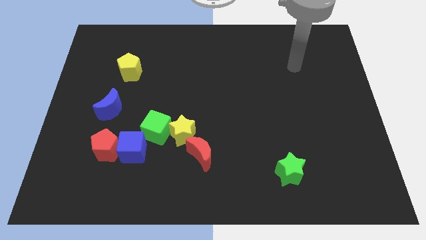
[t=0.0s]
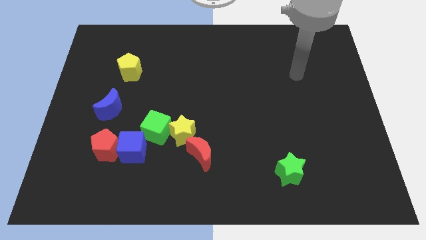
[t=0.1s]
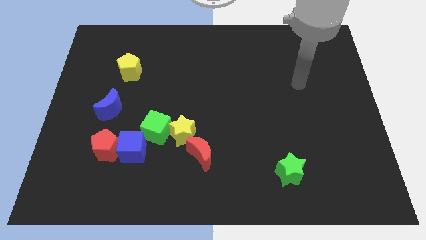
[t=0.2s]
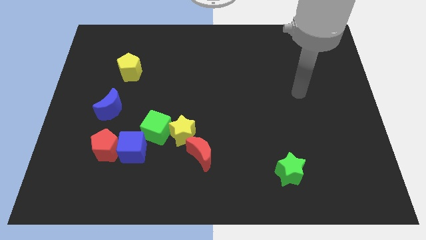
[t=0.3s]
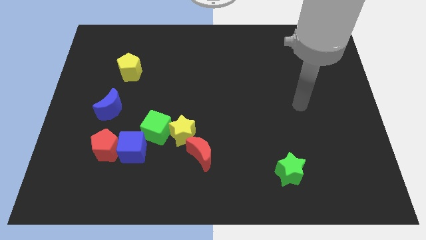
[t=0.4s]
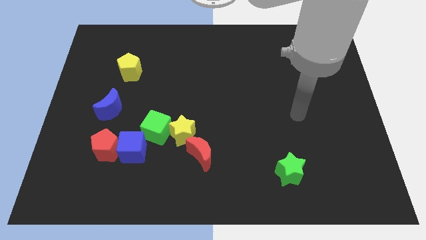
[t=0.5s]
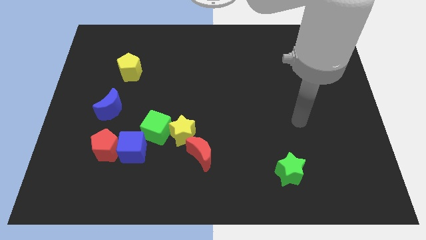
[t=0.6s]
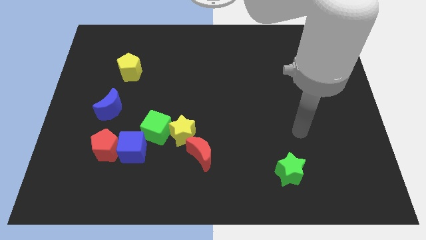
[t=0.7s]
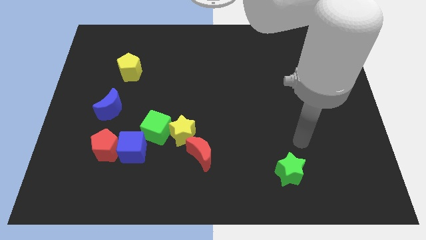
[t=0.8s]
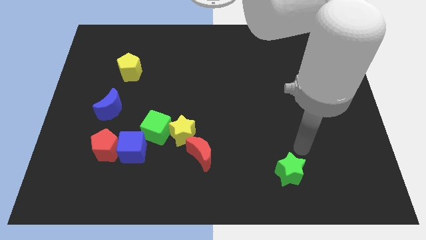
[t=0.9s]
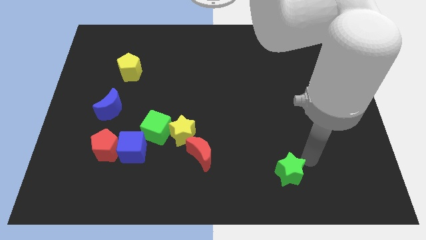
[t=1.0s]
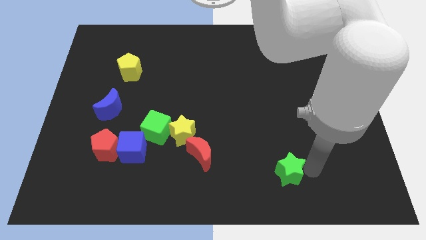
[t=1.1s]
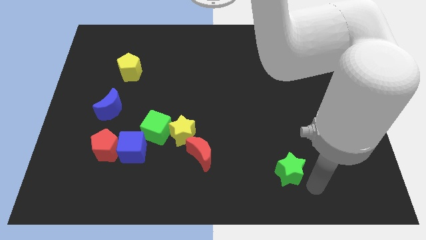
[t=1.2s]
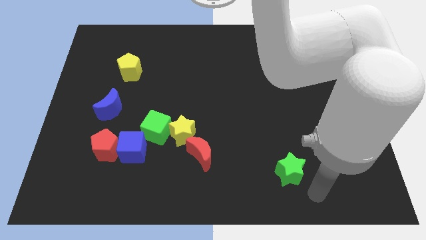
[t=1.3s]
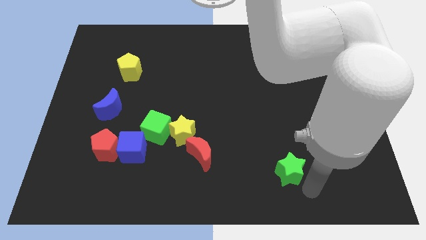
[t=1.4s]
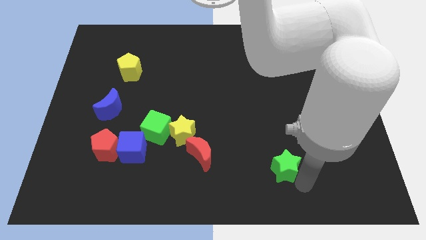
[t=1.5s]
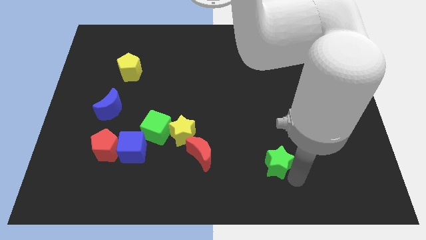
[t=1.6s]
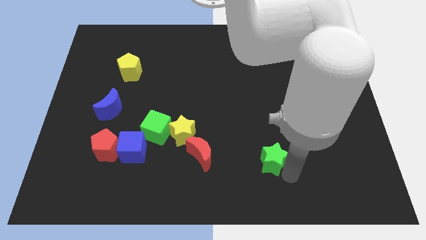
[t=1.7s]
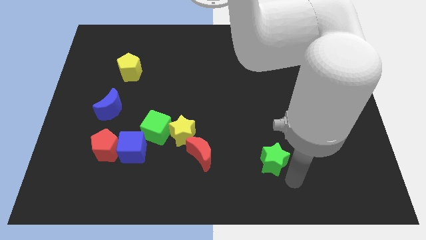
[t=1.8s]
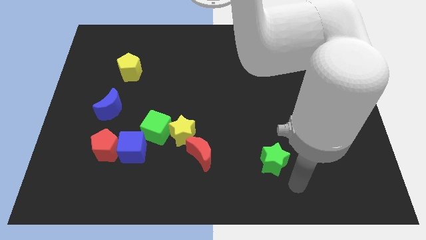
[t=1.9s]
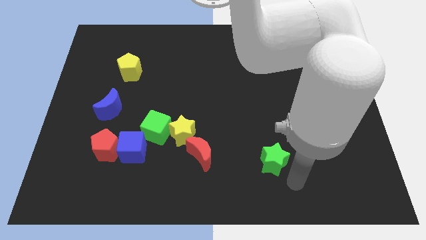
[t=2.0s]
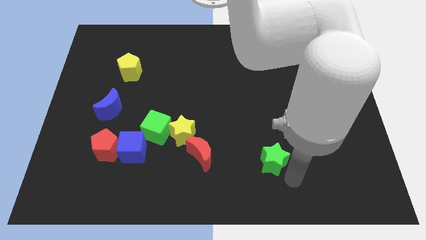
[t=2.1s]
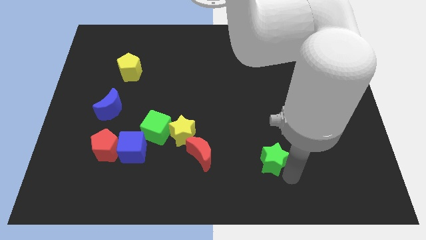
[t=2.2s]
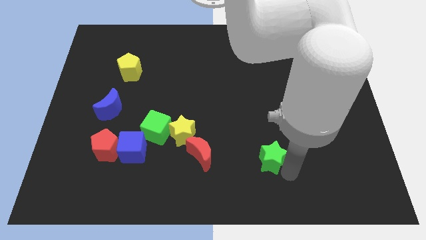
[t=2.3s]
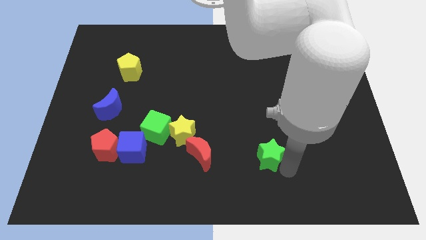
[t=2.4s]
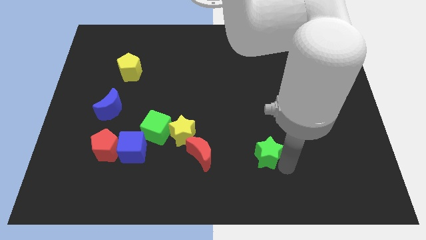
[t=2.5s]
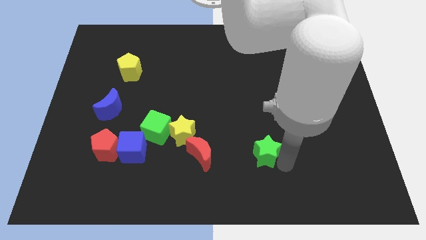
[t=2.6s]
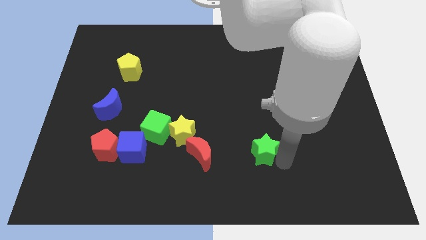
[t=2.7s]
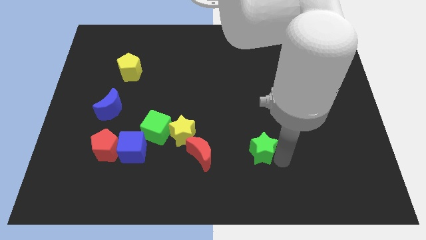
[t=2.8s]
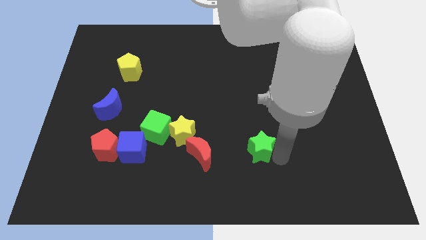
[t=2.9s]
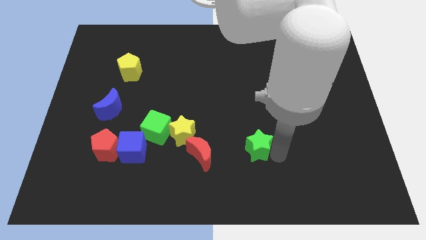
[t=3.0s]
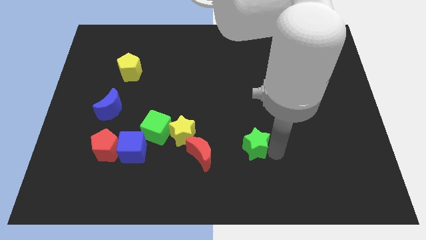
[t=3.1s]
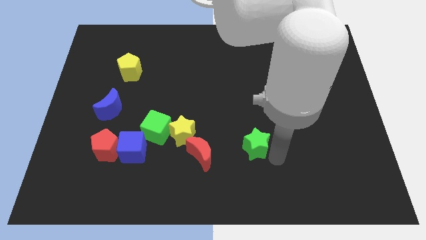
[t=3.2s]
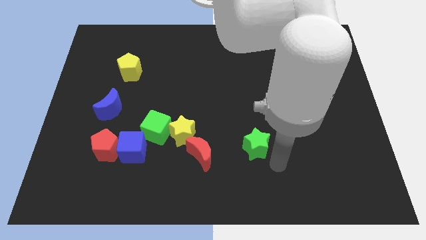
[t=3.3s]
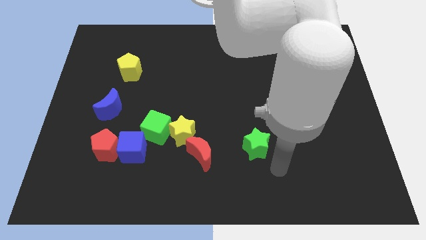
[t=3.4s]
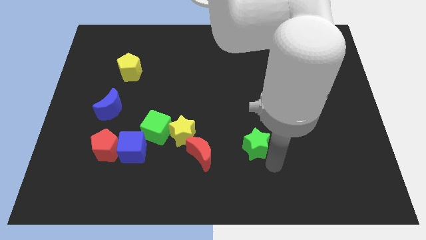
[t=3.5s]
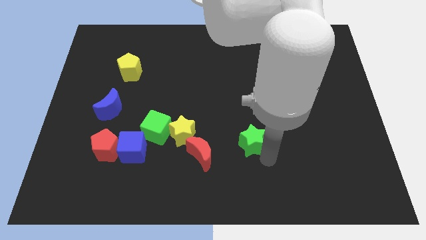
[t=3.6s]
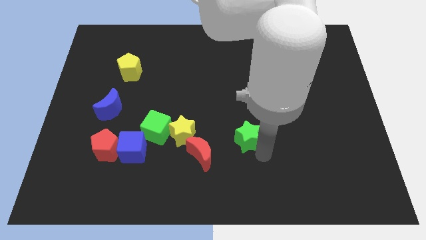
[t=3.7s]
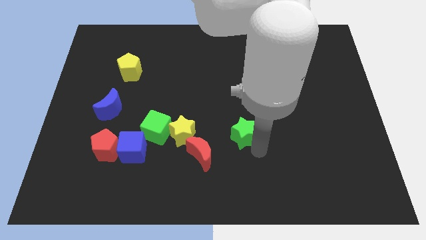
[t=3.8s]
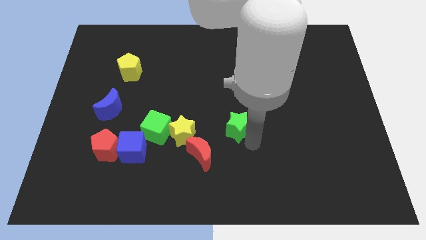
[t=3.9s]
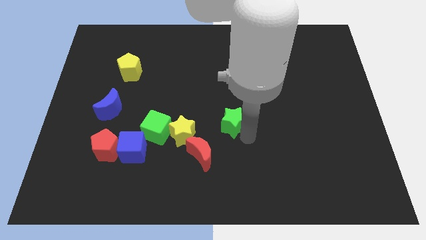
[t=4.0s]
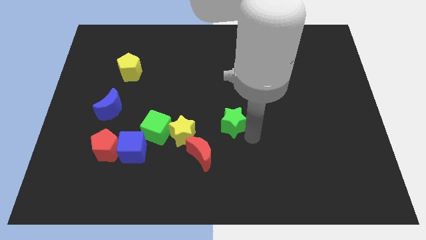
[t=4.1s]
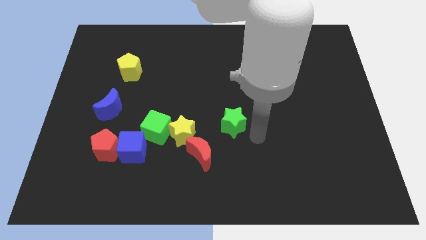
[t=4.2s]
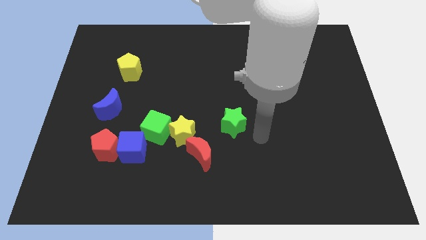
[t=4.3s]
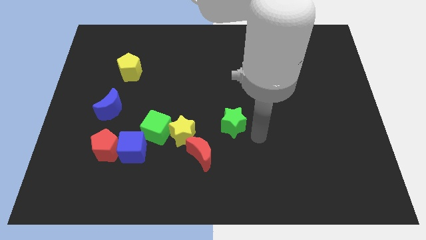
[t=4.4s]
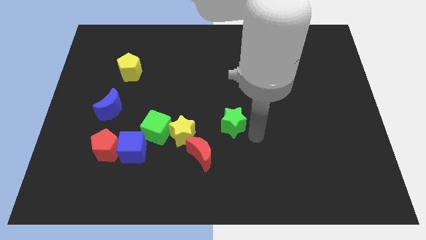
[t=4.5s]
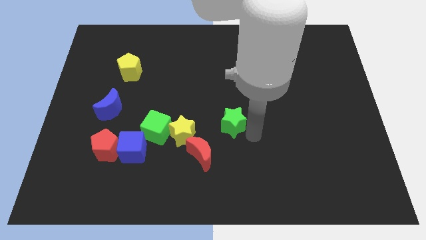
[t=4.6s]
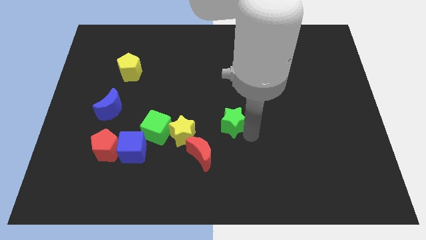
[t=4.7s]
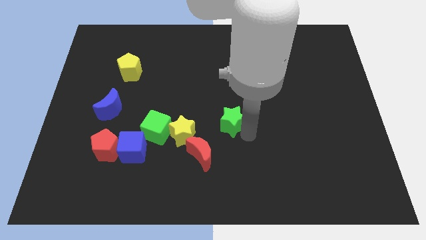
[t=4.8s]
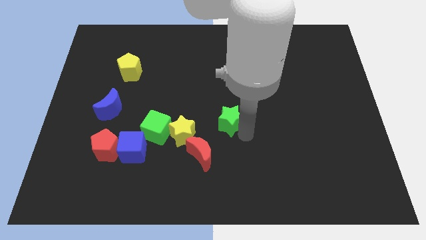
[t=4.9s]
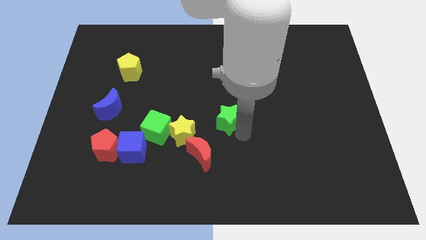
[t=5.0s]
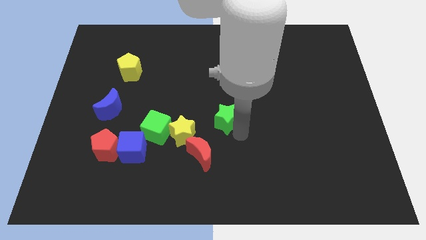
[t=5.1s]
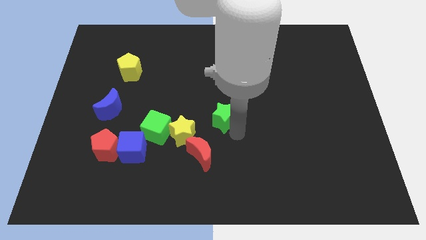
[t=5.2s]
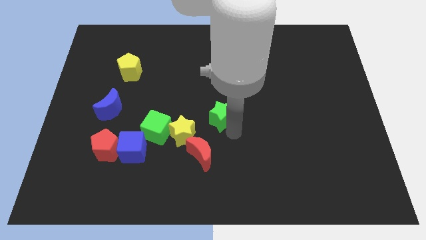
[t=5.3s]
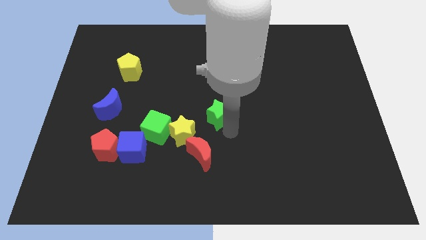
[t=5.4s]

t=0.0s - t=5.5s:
slide the green star upwards and left

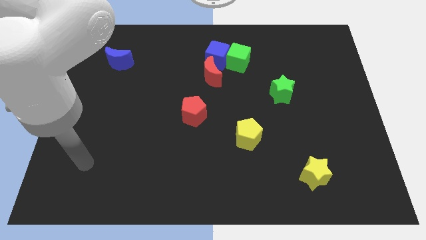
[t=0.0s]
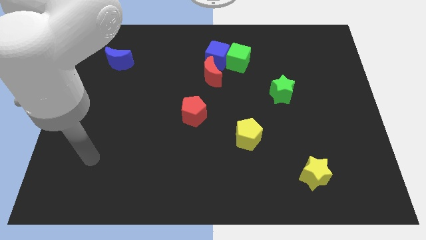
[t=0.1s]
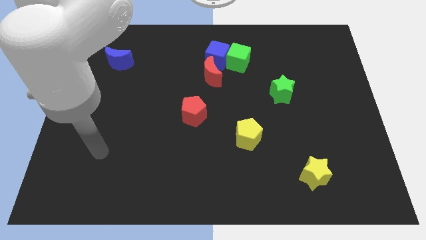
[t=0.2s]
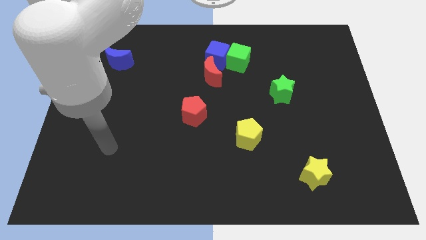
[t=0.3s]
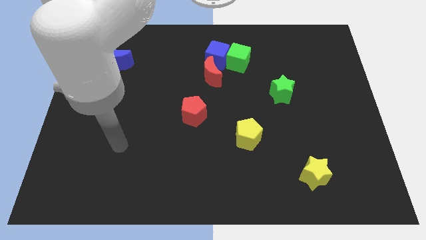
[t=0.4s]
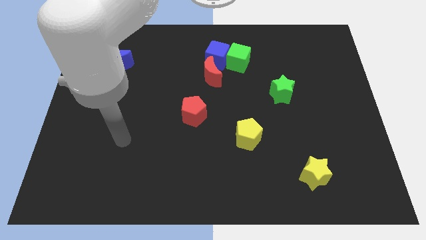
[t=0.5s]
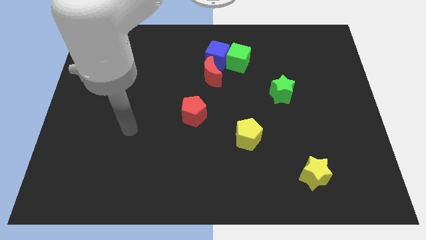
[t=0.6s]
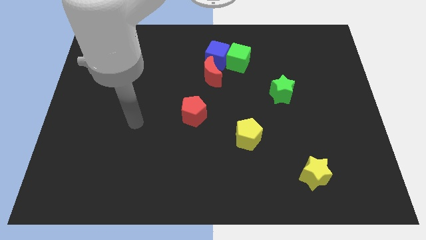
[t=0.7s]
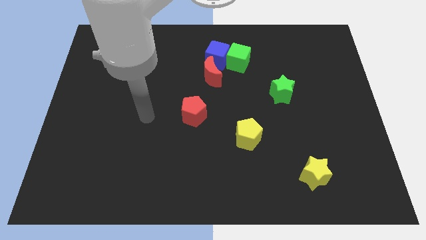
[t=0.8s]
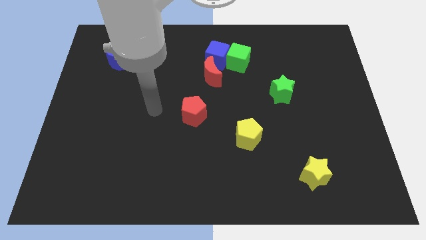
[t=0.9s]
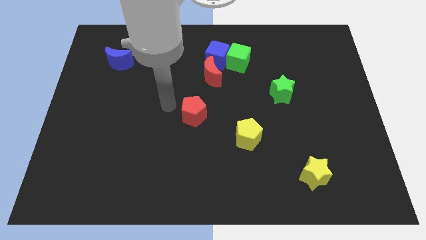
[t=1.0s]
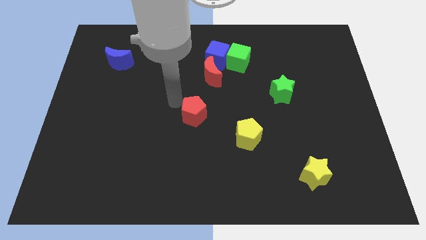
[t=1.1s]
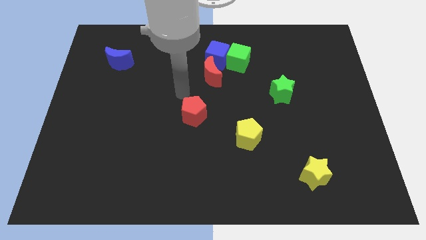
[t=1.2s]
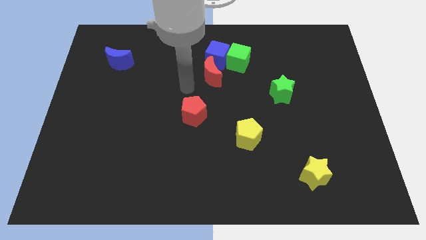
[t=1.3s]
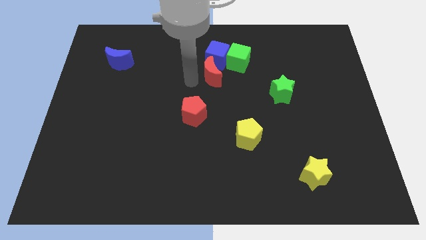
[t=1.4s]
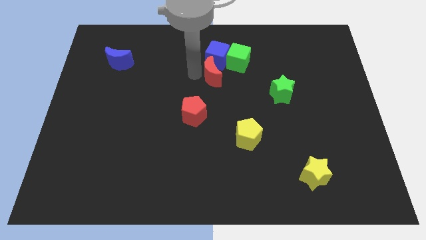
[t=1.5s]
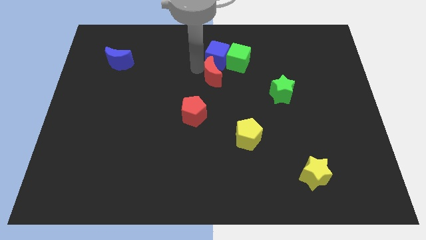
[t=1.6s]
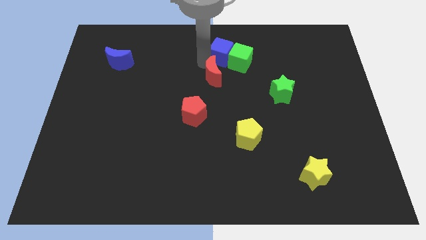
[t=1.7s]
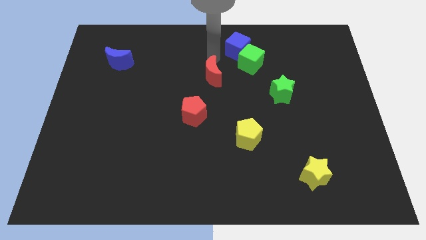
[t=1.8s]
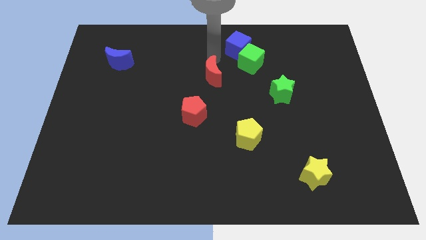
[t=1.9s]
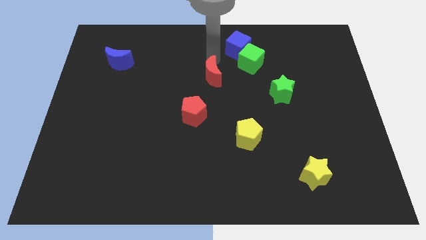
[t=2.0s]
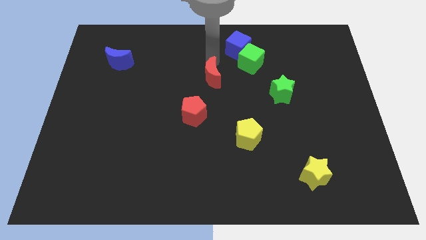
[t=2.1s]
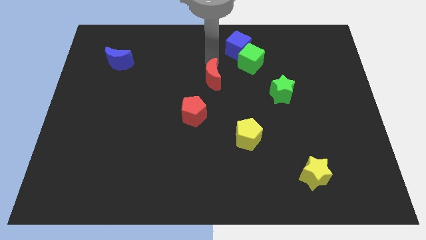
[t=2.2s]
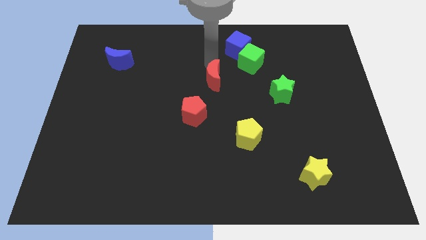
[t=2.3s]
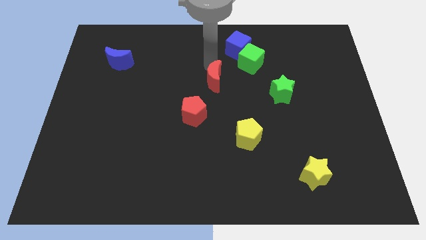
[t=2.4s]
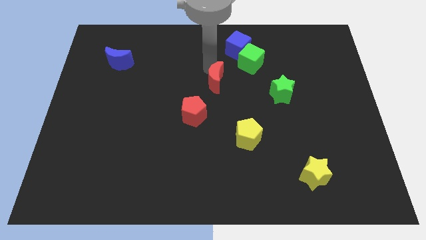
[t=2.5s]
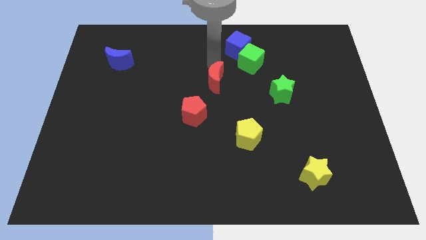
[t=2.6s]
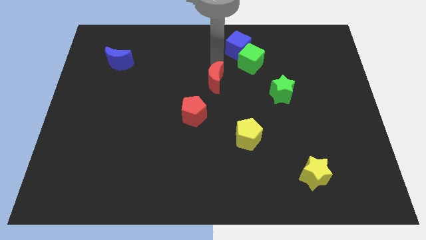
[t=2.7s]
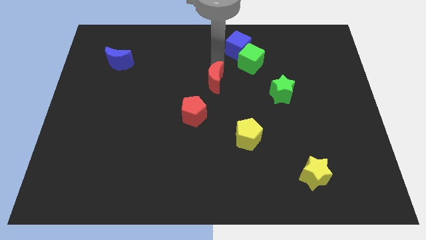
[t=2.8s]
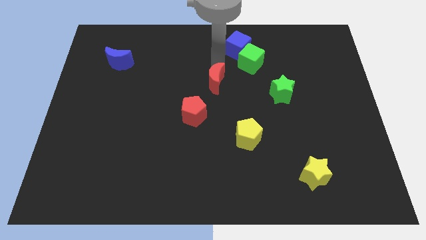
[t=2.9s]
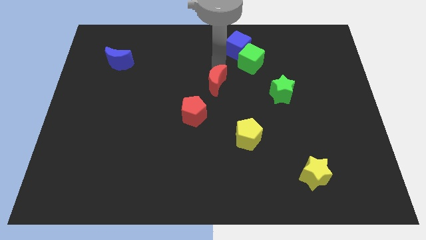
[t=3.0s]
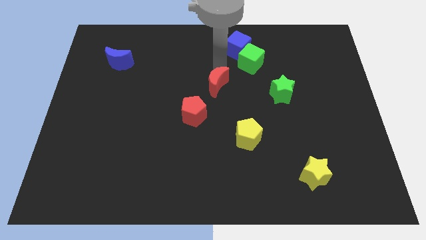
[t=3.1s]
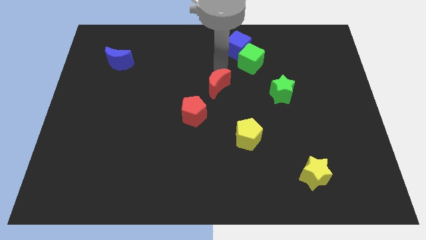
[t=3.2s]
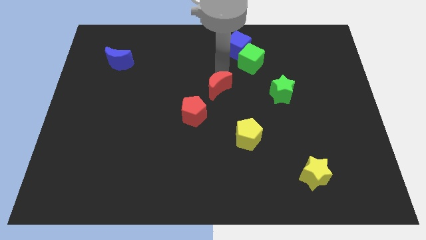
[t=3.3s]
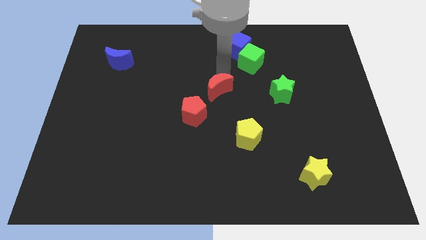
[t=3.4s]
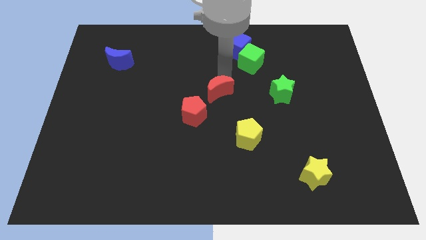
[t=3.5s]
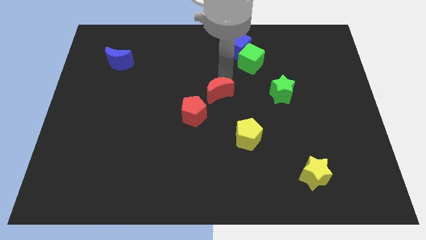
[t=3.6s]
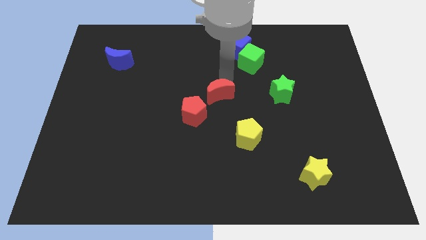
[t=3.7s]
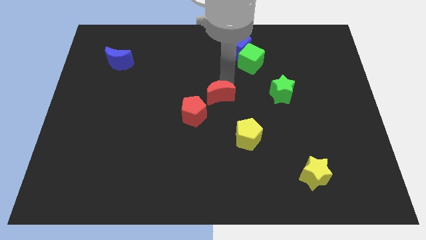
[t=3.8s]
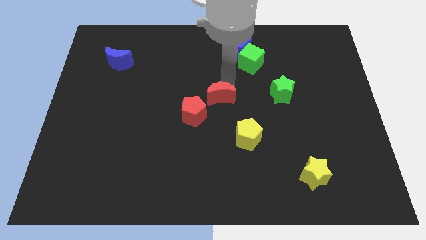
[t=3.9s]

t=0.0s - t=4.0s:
push the red moon somewhat downwards
